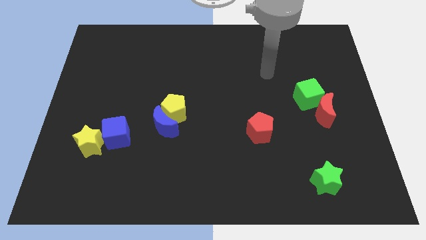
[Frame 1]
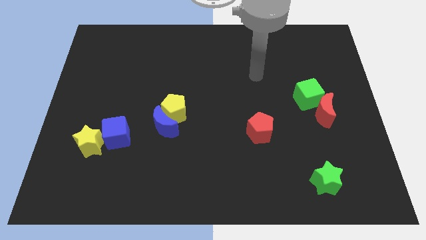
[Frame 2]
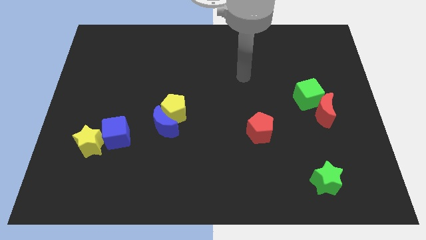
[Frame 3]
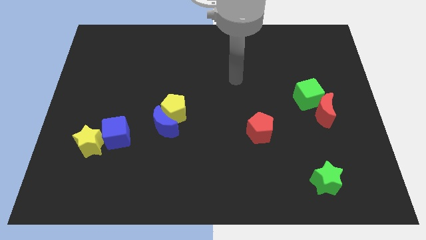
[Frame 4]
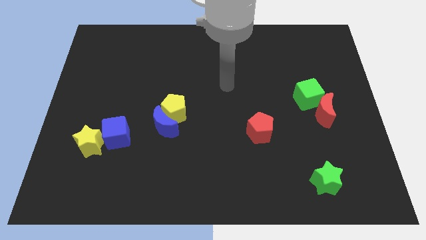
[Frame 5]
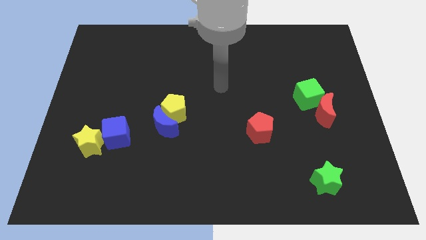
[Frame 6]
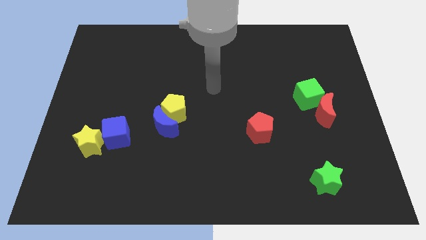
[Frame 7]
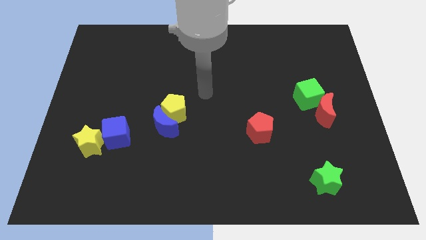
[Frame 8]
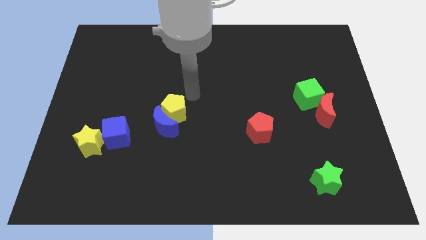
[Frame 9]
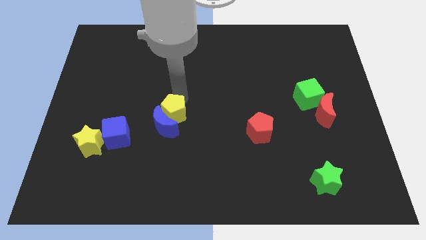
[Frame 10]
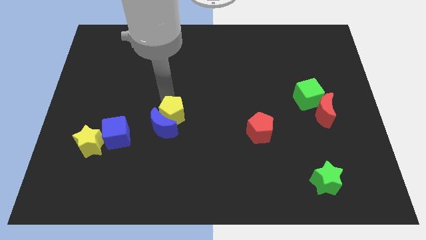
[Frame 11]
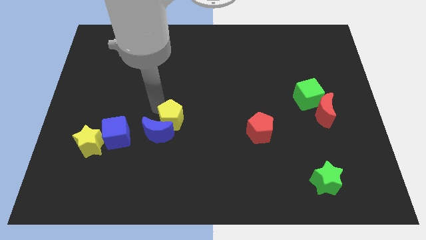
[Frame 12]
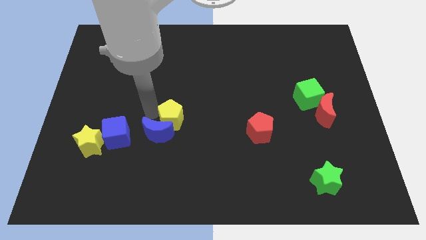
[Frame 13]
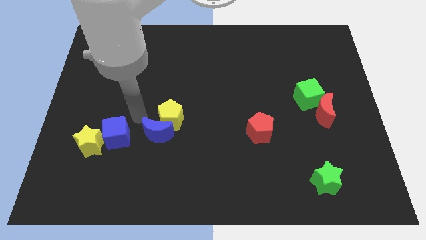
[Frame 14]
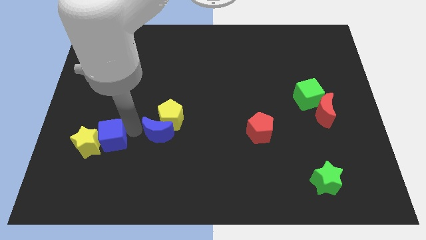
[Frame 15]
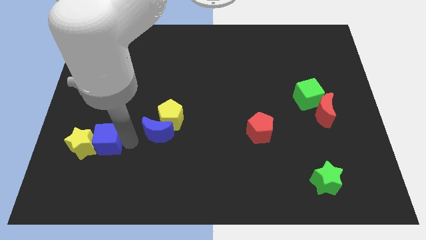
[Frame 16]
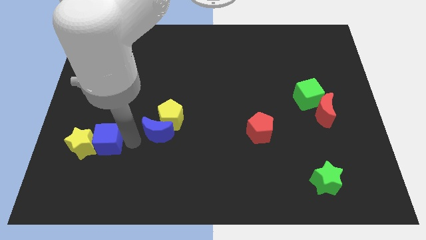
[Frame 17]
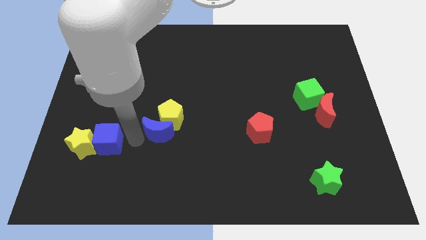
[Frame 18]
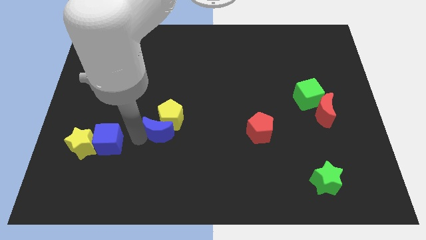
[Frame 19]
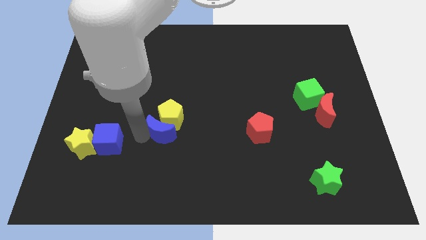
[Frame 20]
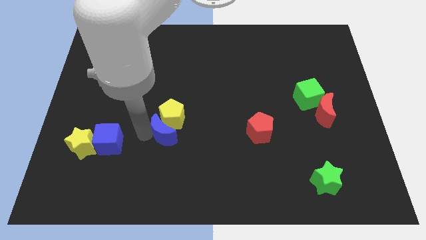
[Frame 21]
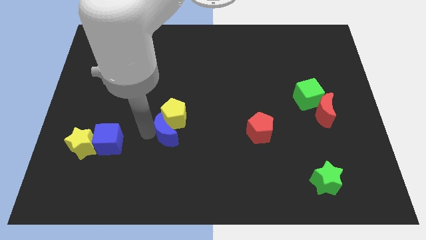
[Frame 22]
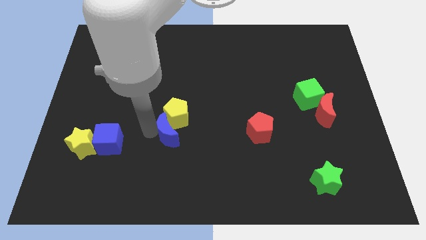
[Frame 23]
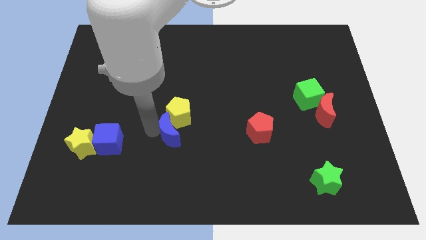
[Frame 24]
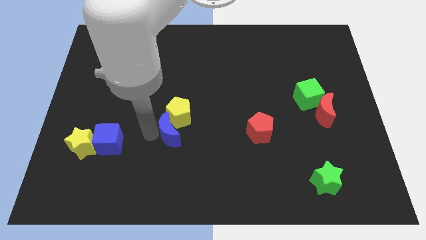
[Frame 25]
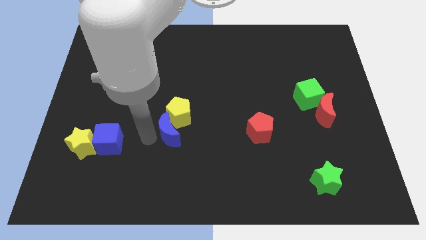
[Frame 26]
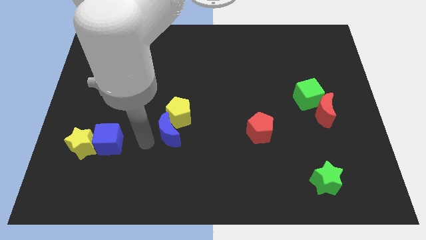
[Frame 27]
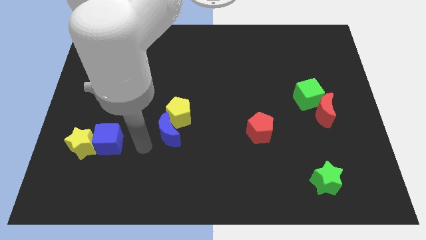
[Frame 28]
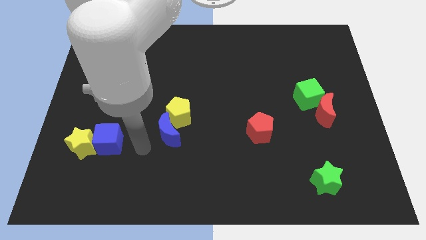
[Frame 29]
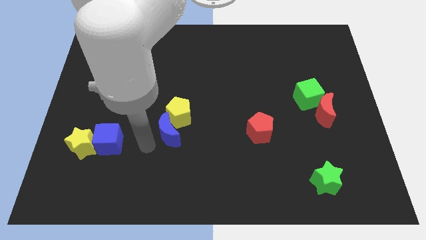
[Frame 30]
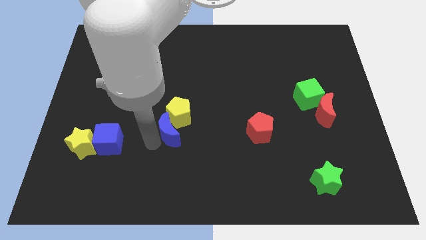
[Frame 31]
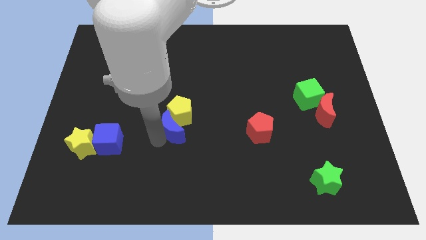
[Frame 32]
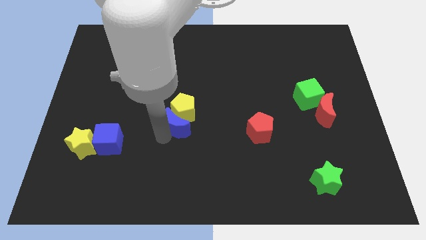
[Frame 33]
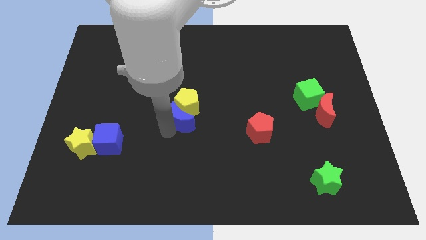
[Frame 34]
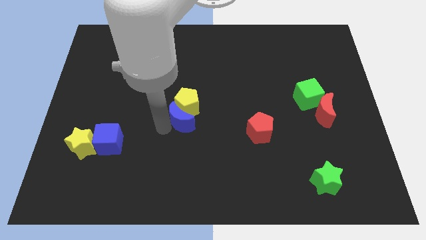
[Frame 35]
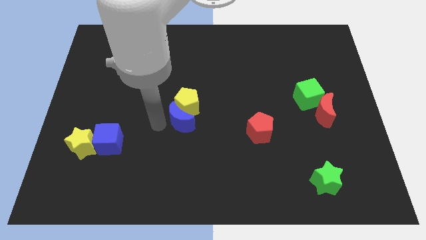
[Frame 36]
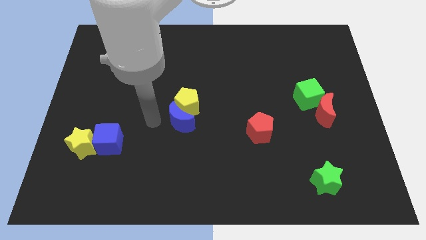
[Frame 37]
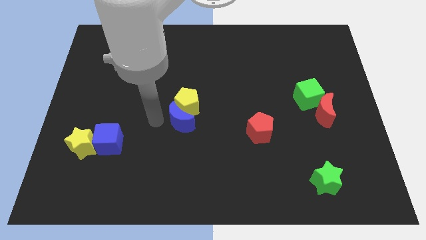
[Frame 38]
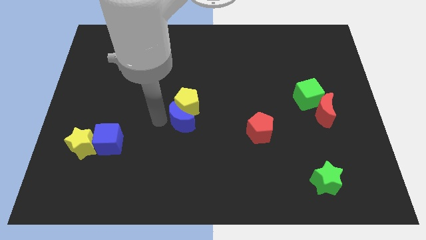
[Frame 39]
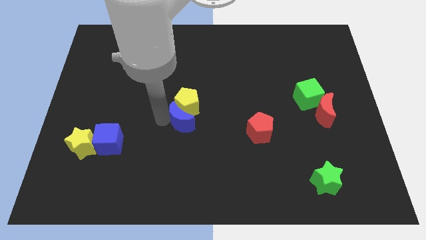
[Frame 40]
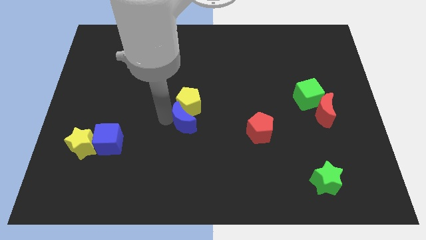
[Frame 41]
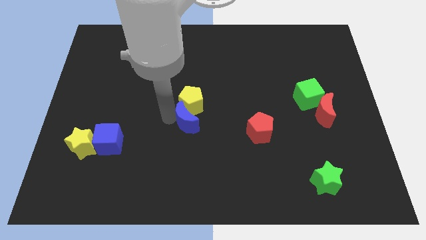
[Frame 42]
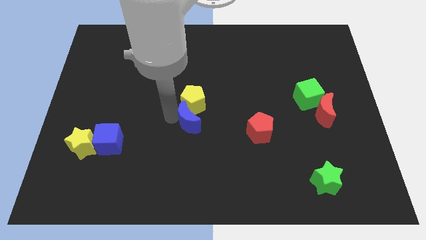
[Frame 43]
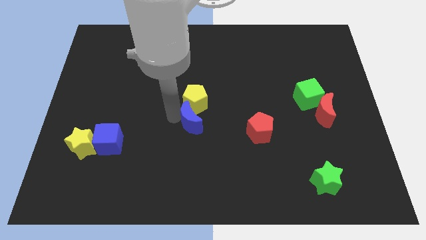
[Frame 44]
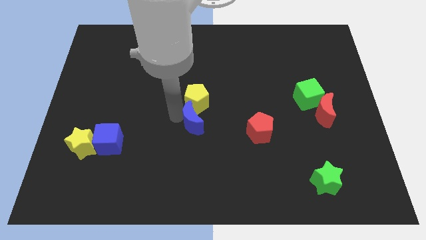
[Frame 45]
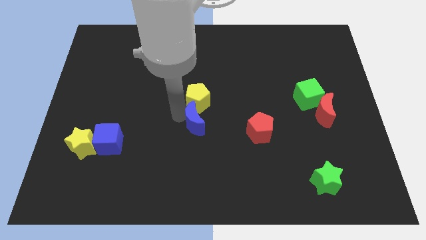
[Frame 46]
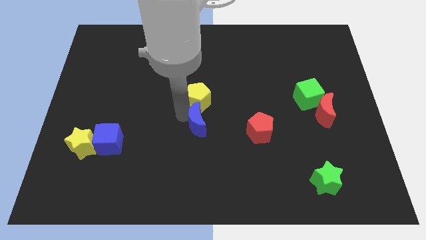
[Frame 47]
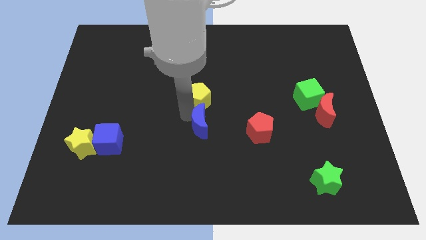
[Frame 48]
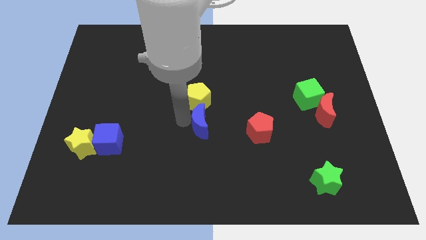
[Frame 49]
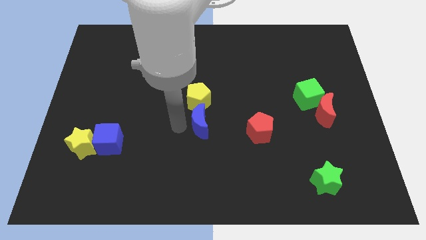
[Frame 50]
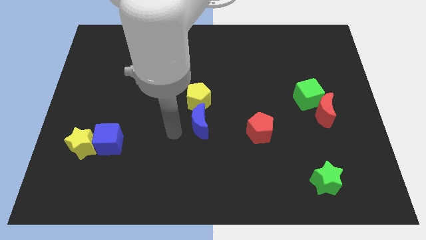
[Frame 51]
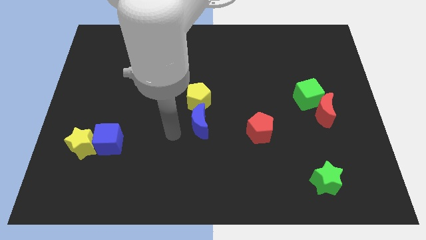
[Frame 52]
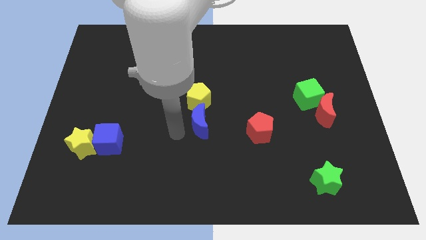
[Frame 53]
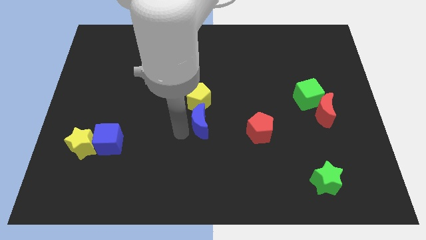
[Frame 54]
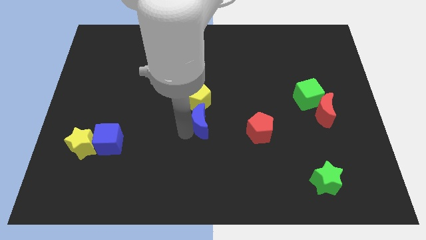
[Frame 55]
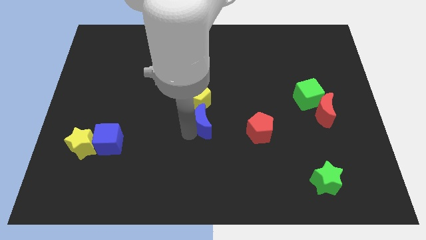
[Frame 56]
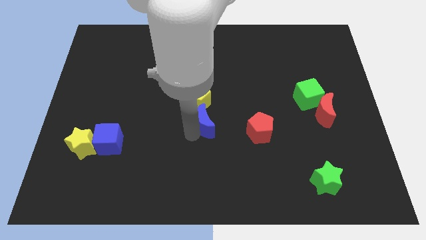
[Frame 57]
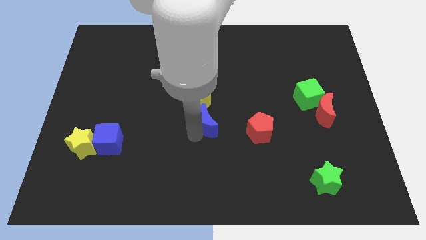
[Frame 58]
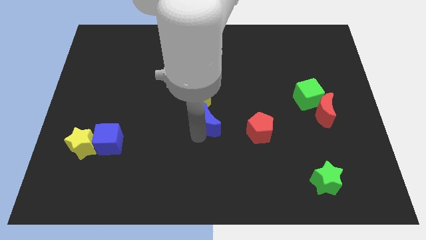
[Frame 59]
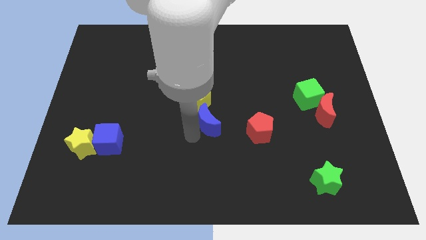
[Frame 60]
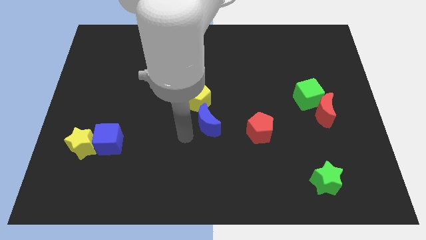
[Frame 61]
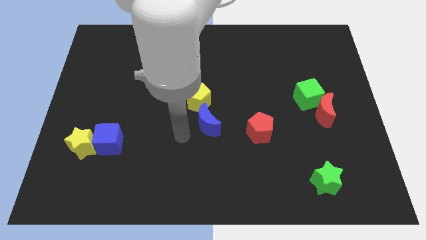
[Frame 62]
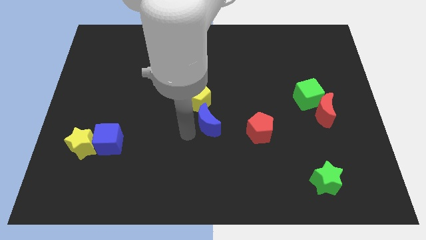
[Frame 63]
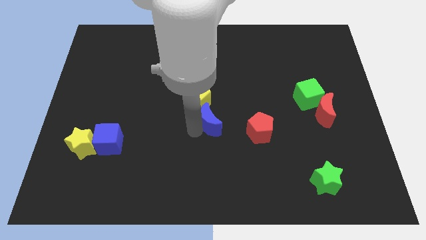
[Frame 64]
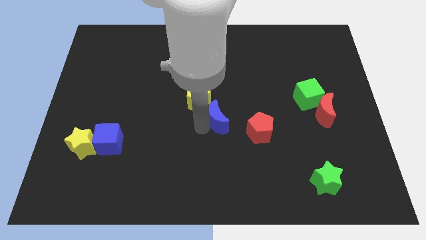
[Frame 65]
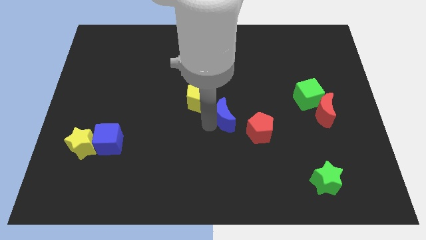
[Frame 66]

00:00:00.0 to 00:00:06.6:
put the blue moon to the top left side of the red pentagon

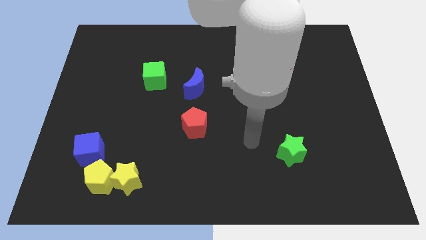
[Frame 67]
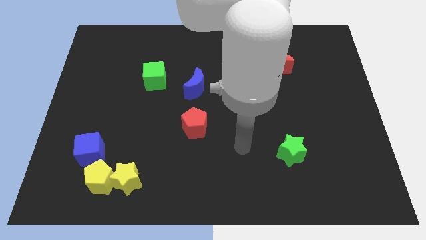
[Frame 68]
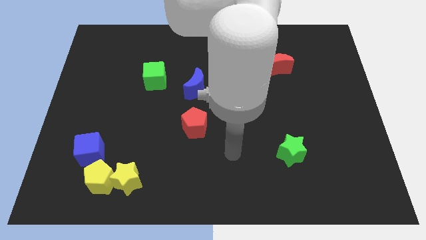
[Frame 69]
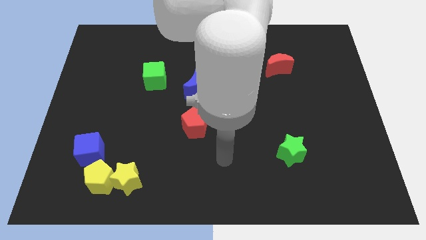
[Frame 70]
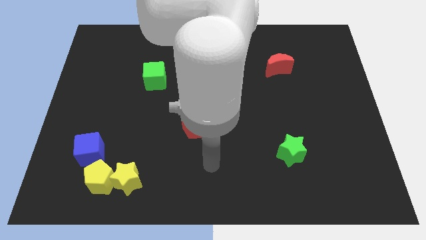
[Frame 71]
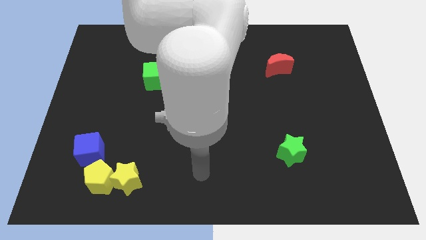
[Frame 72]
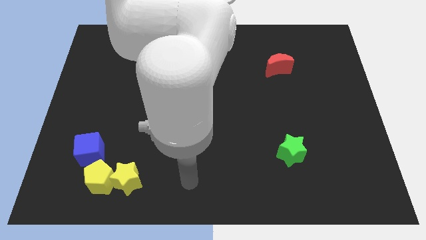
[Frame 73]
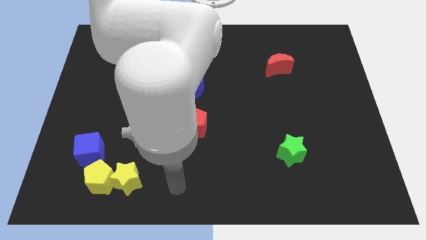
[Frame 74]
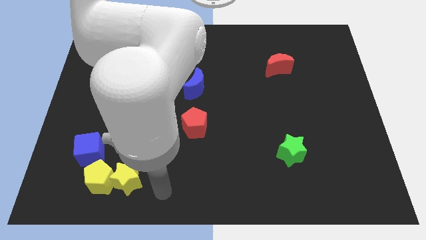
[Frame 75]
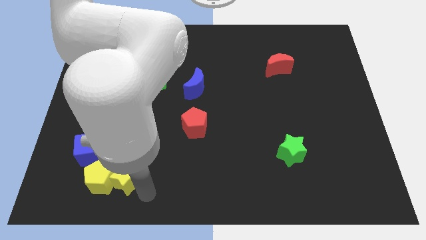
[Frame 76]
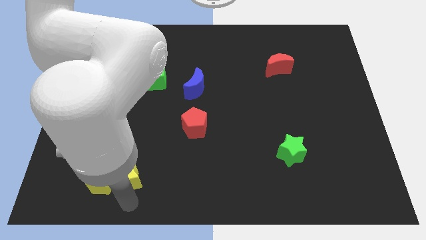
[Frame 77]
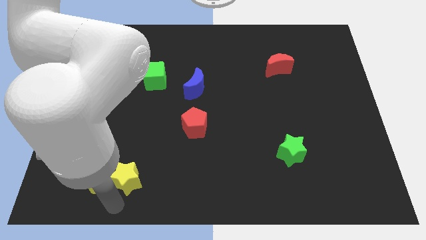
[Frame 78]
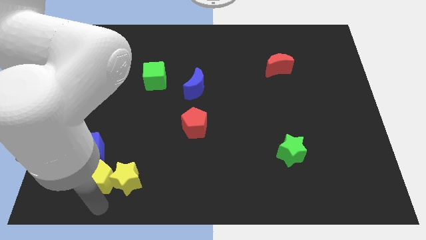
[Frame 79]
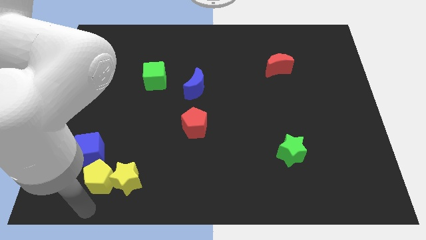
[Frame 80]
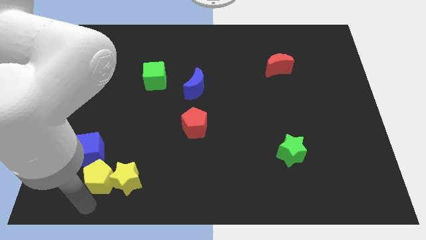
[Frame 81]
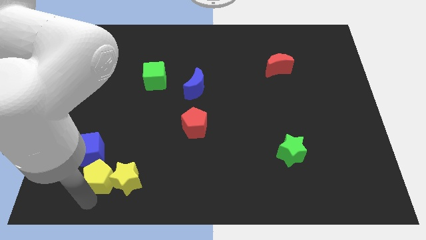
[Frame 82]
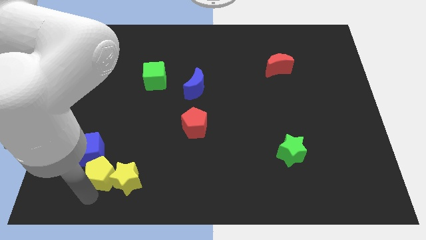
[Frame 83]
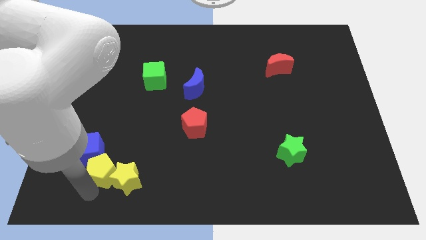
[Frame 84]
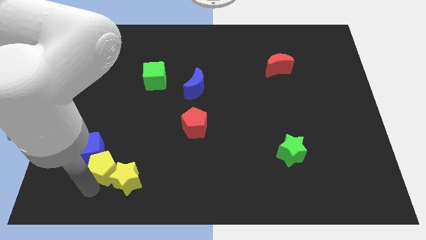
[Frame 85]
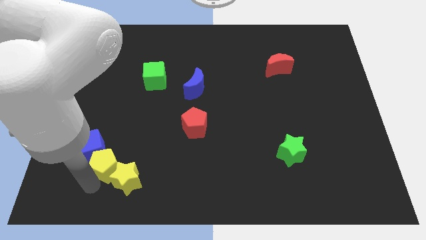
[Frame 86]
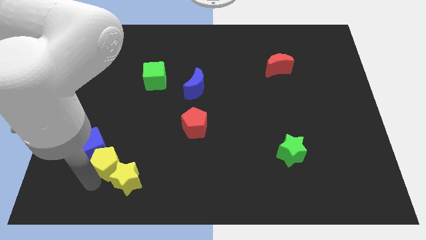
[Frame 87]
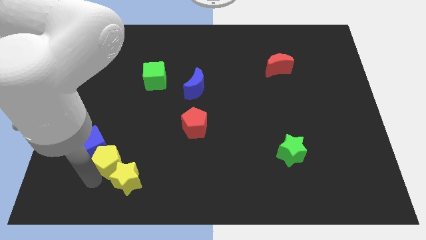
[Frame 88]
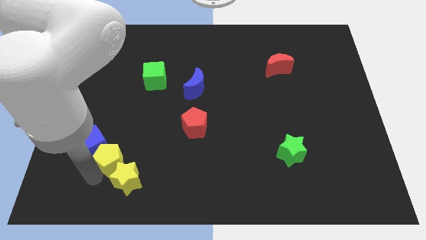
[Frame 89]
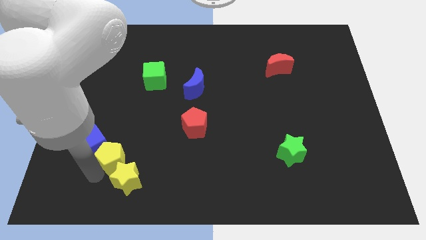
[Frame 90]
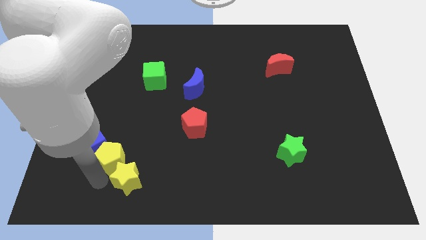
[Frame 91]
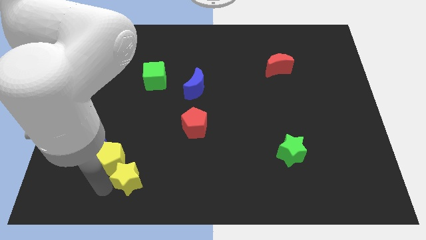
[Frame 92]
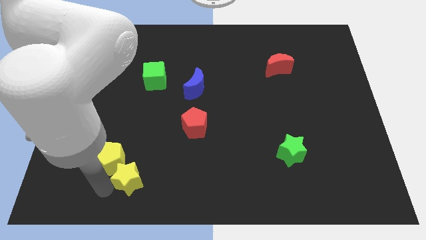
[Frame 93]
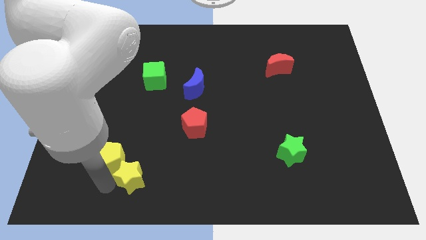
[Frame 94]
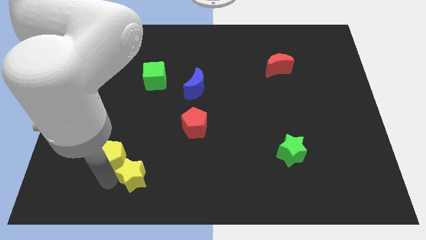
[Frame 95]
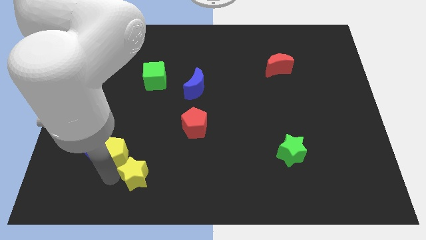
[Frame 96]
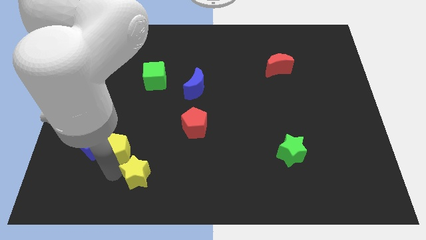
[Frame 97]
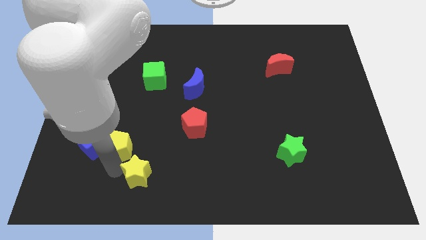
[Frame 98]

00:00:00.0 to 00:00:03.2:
put the yellow pentagon to the top right side of the blue cube
